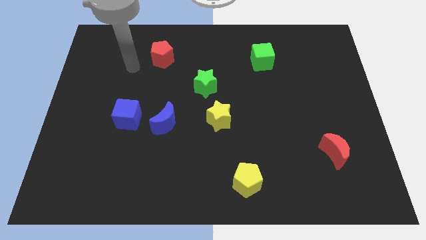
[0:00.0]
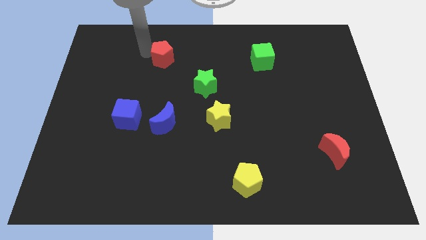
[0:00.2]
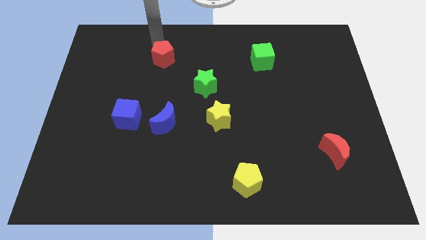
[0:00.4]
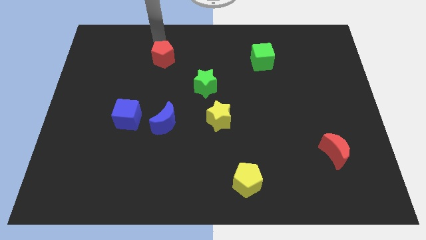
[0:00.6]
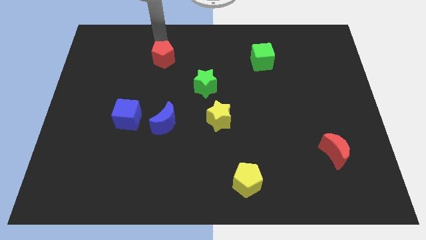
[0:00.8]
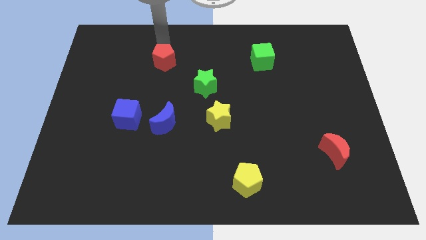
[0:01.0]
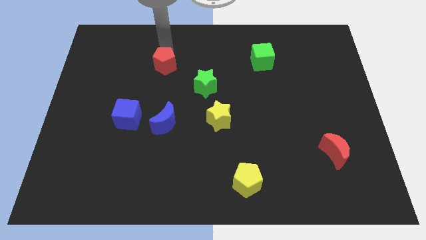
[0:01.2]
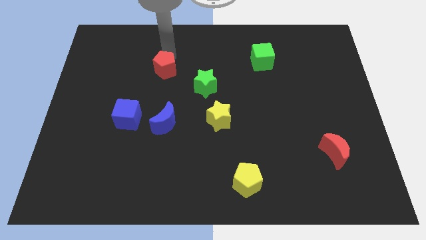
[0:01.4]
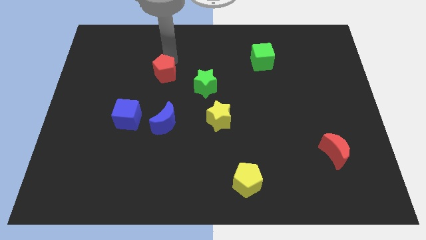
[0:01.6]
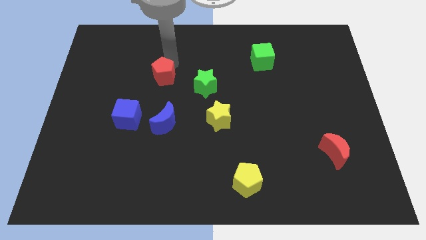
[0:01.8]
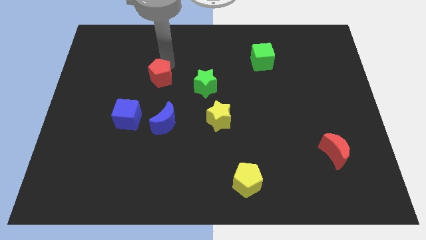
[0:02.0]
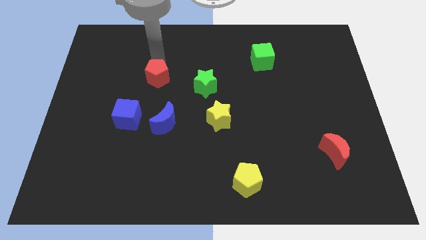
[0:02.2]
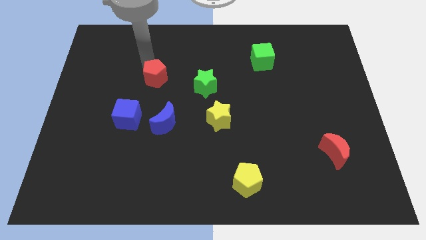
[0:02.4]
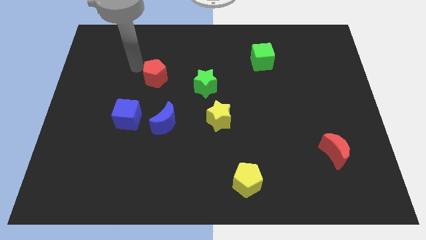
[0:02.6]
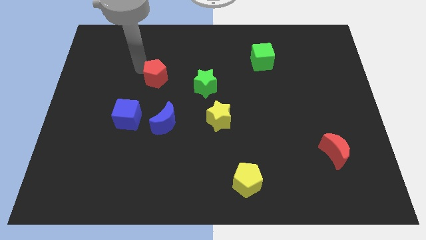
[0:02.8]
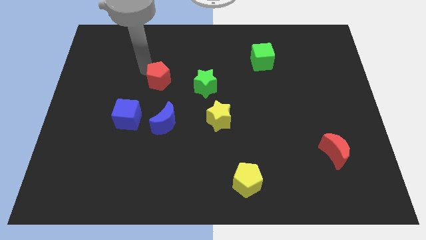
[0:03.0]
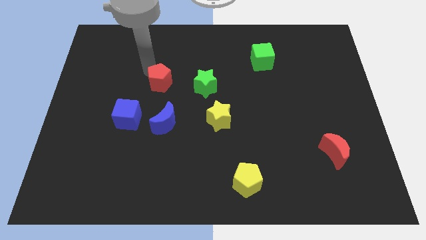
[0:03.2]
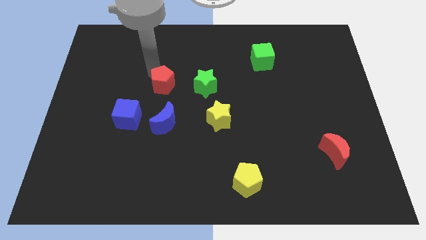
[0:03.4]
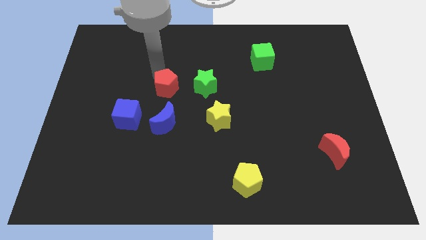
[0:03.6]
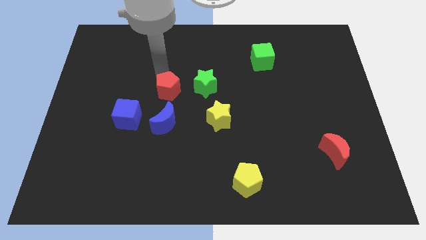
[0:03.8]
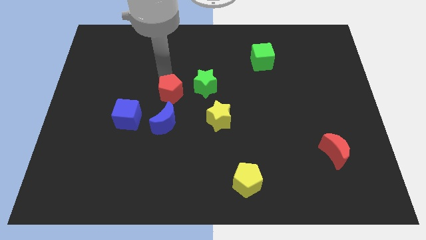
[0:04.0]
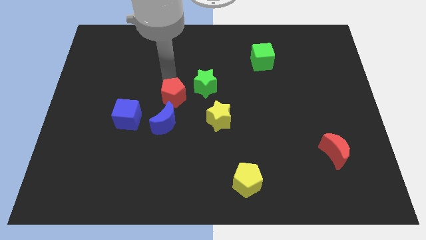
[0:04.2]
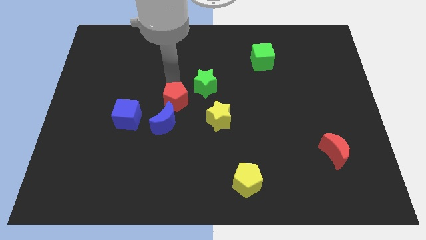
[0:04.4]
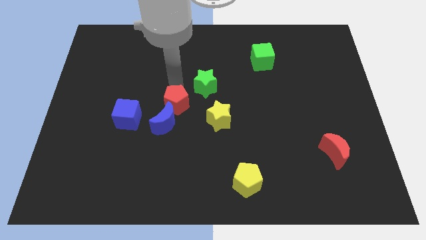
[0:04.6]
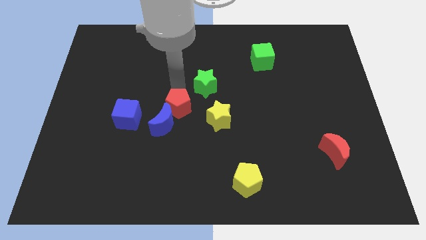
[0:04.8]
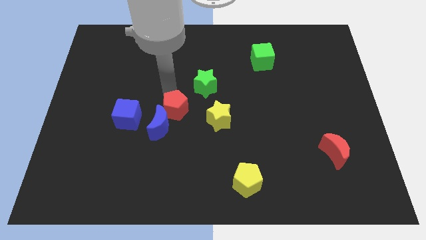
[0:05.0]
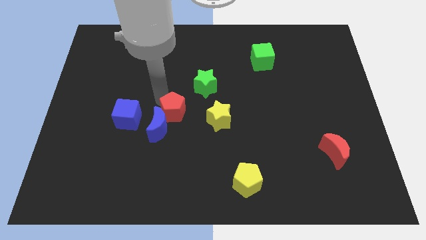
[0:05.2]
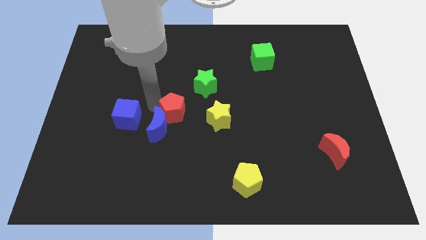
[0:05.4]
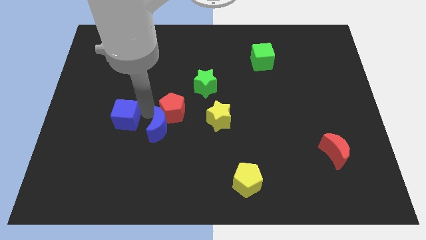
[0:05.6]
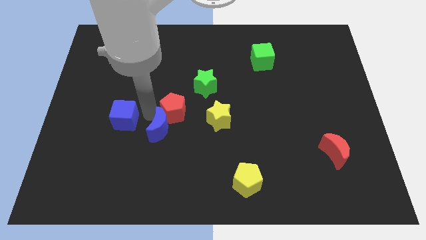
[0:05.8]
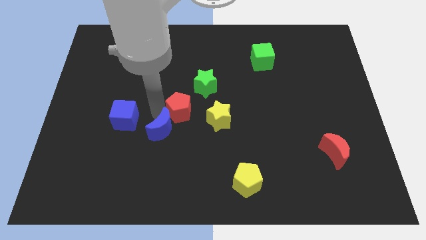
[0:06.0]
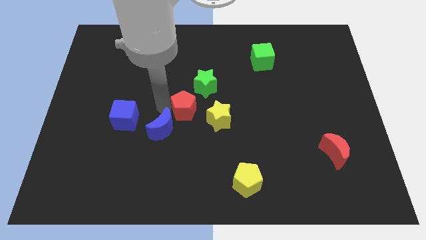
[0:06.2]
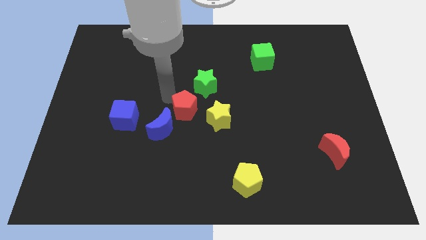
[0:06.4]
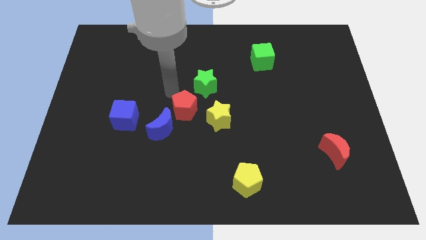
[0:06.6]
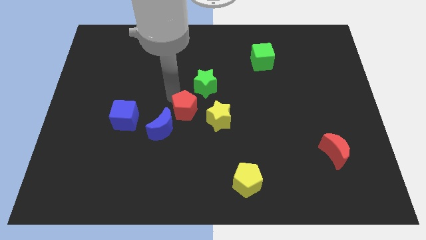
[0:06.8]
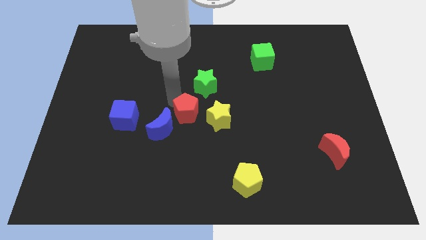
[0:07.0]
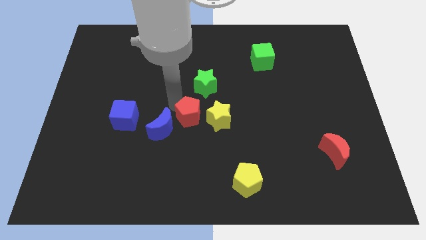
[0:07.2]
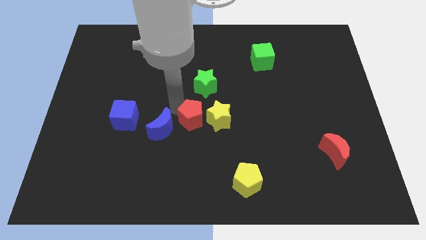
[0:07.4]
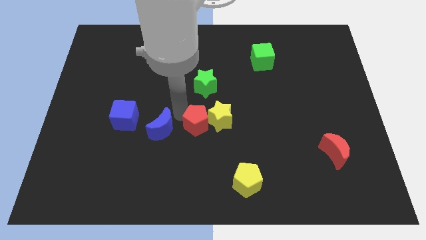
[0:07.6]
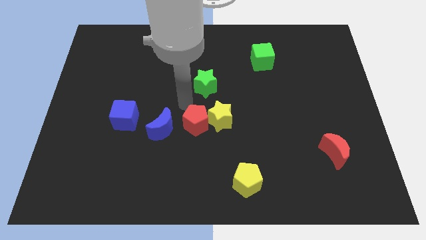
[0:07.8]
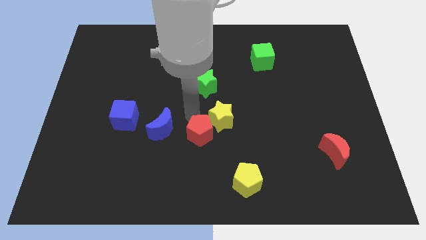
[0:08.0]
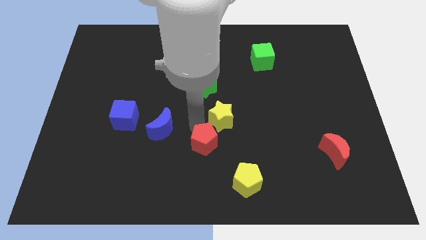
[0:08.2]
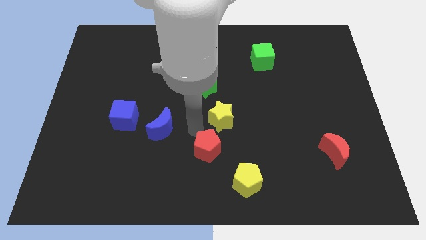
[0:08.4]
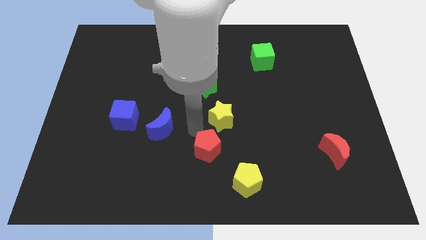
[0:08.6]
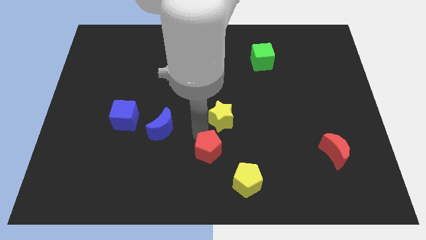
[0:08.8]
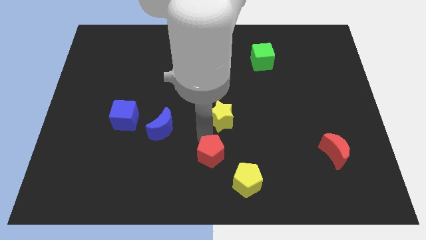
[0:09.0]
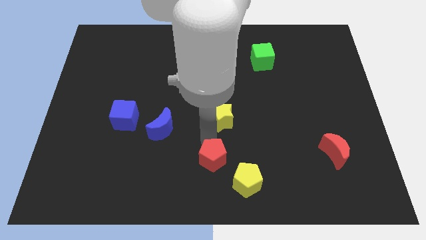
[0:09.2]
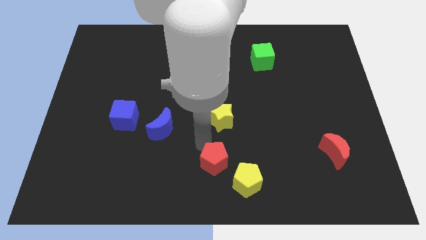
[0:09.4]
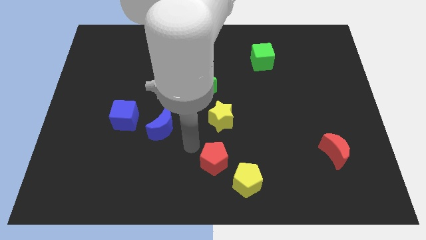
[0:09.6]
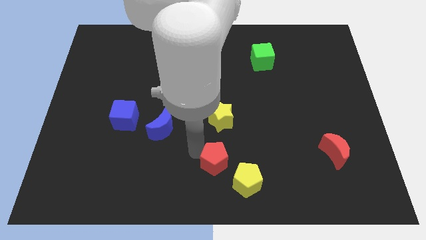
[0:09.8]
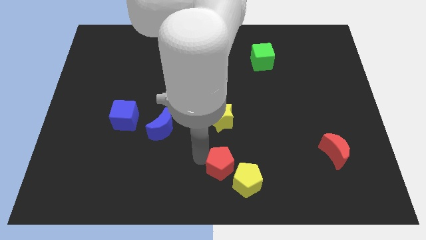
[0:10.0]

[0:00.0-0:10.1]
put the red pentagon close to the yellow pentagon

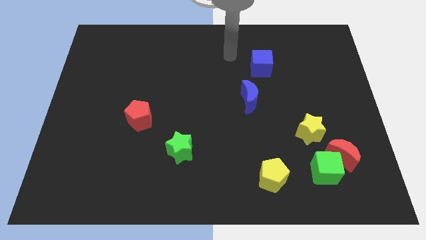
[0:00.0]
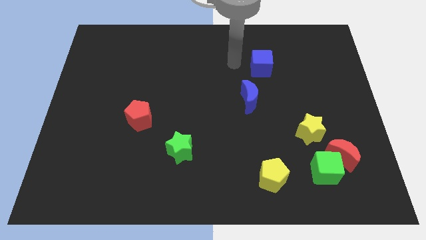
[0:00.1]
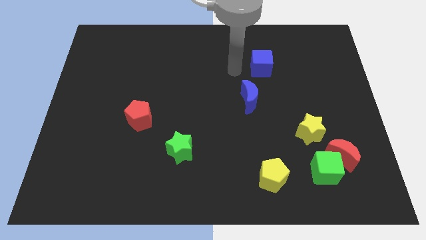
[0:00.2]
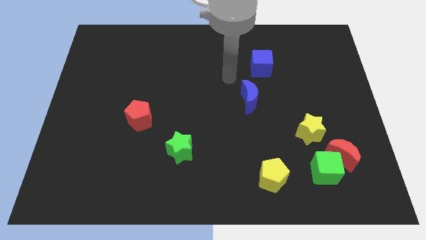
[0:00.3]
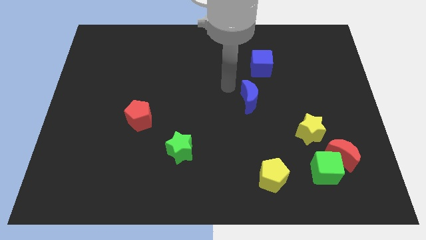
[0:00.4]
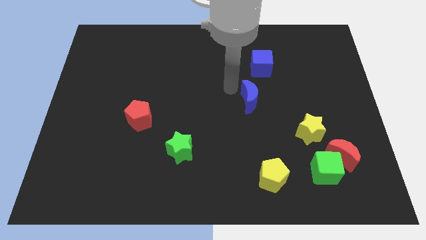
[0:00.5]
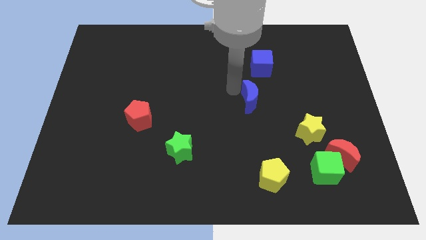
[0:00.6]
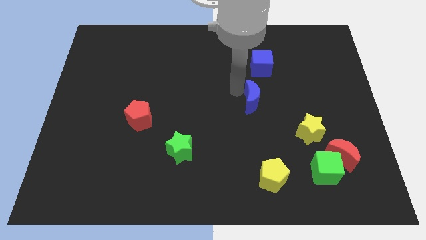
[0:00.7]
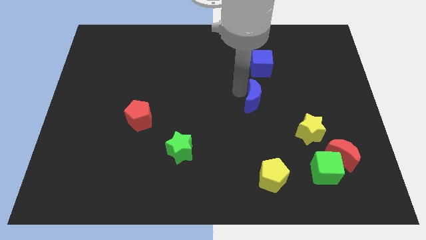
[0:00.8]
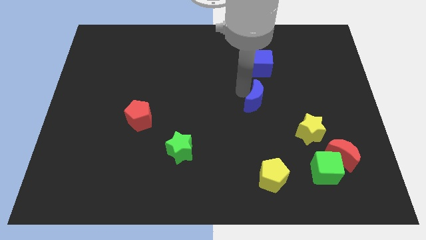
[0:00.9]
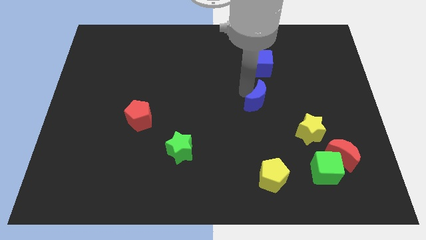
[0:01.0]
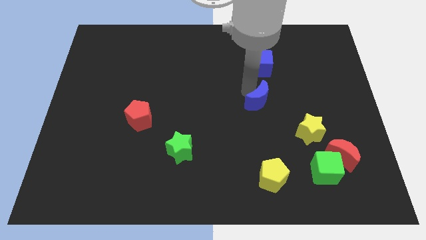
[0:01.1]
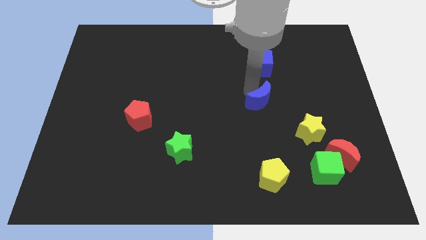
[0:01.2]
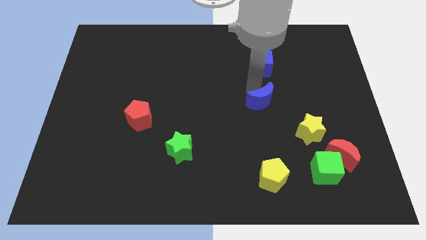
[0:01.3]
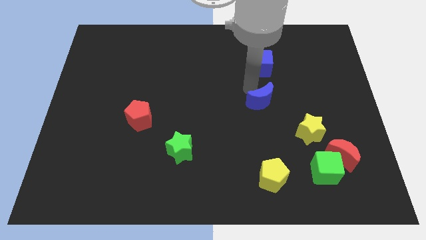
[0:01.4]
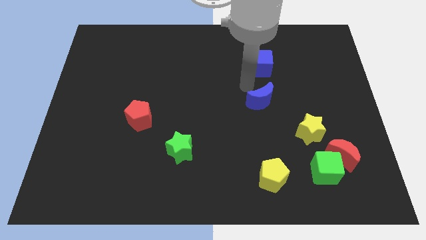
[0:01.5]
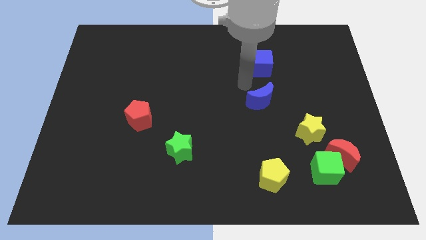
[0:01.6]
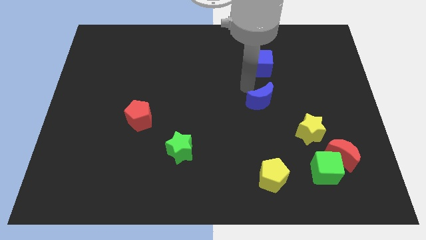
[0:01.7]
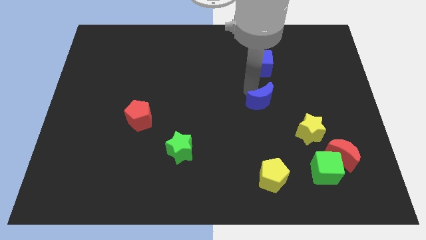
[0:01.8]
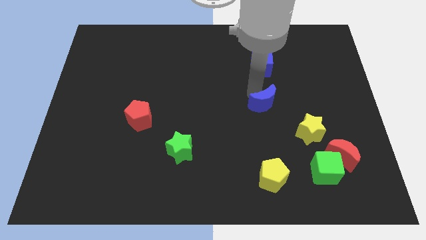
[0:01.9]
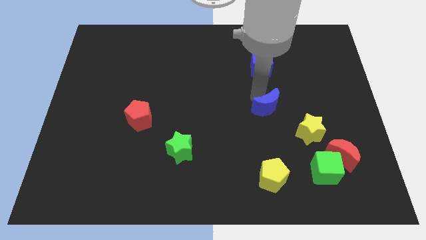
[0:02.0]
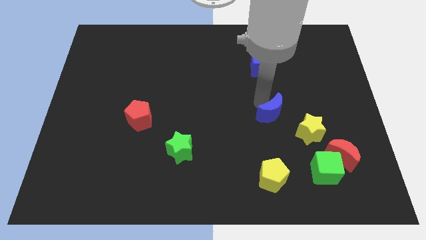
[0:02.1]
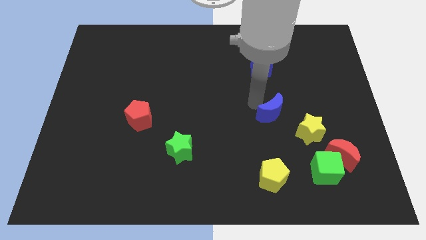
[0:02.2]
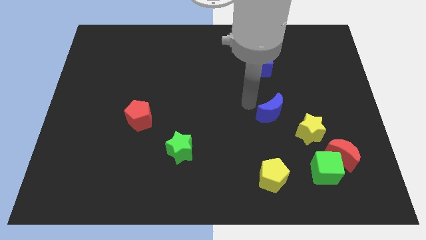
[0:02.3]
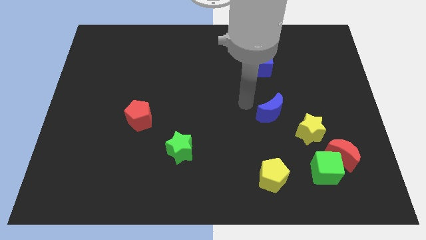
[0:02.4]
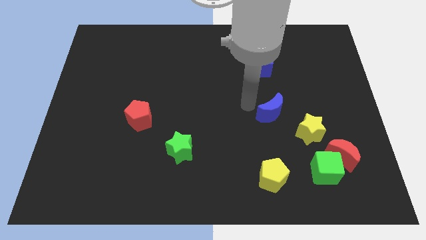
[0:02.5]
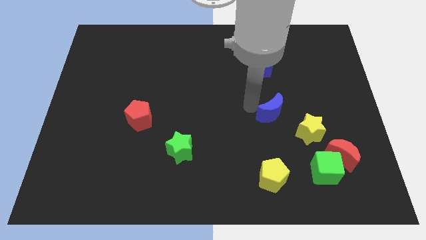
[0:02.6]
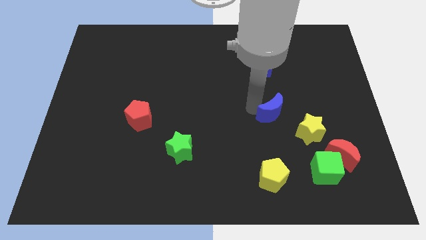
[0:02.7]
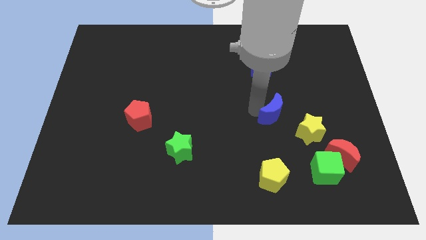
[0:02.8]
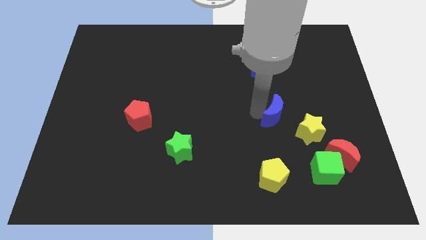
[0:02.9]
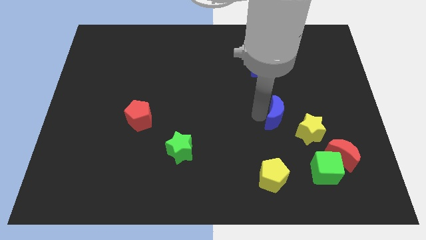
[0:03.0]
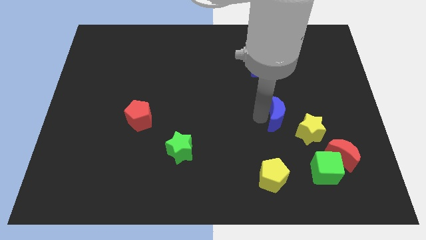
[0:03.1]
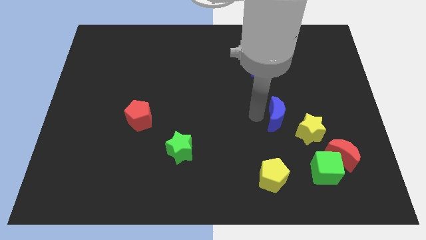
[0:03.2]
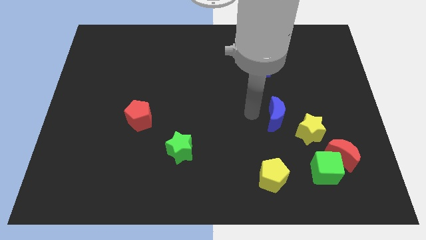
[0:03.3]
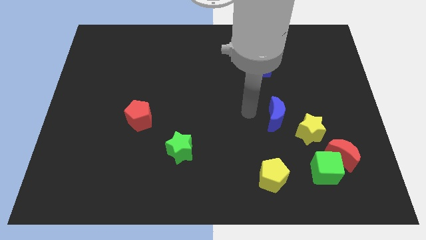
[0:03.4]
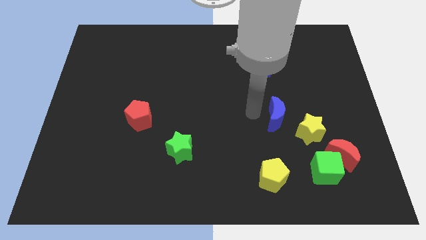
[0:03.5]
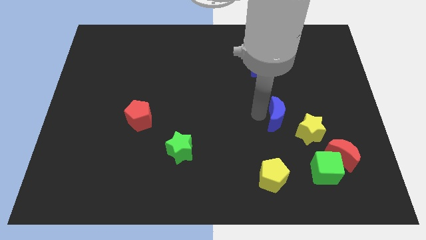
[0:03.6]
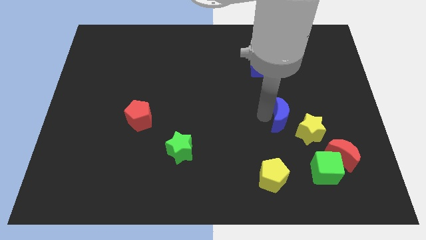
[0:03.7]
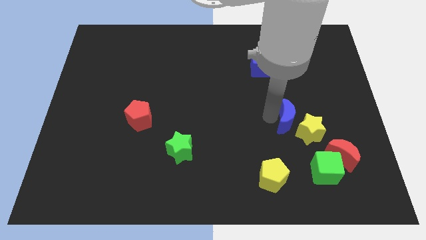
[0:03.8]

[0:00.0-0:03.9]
push the blue moon to the yellow star
